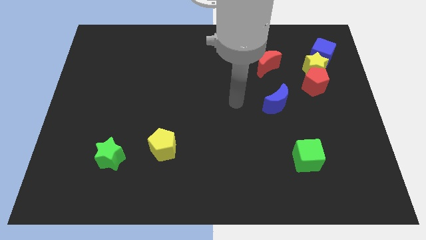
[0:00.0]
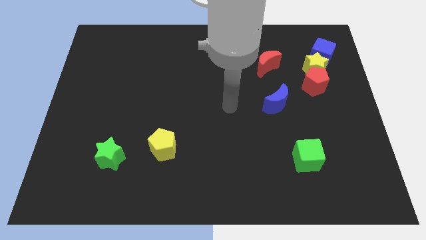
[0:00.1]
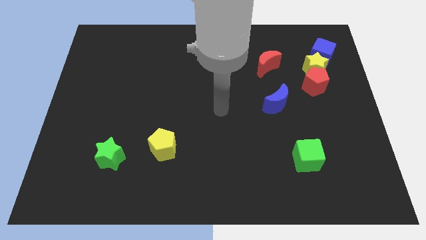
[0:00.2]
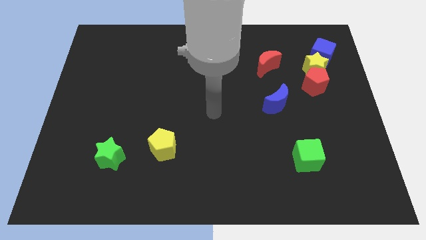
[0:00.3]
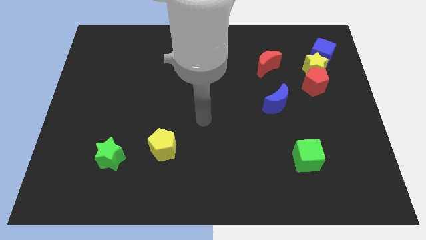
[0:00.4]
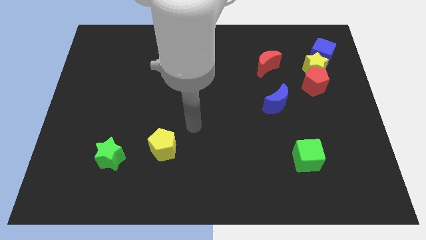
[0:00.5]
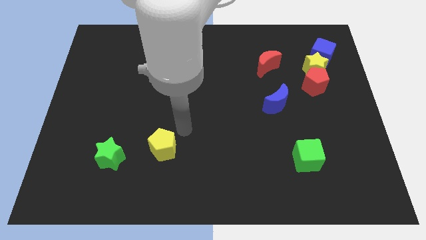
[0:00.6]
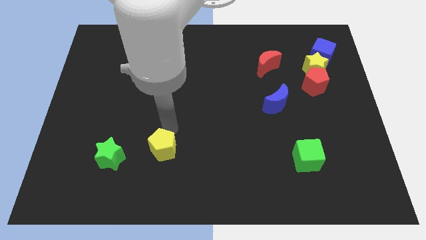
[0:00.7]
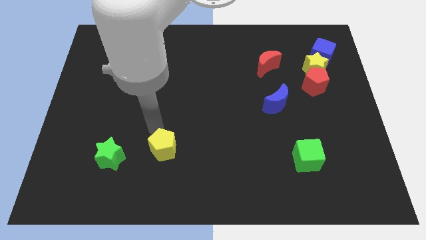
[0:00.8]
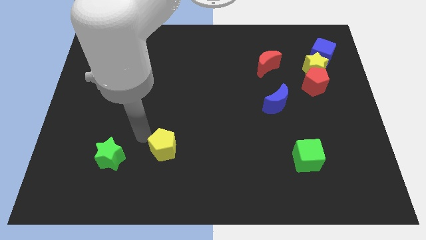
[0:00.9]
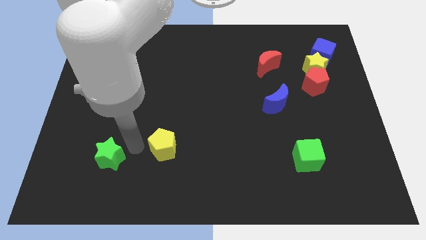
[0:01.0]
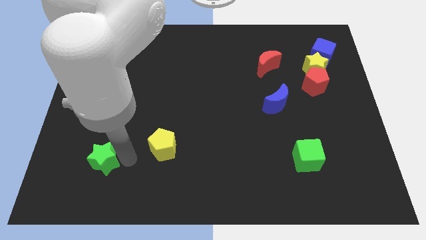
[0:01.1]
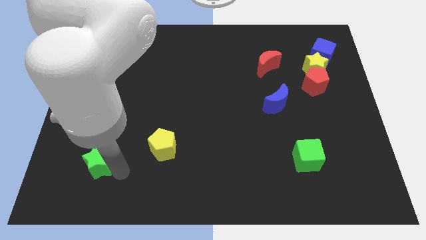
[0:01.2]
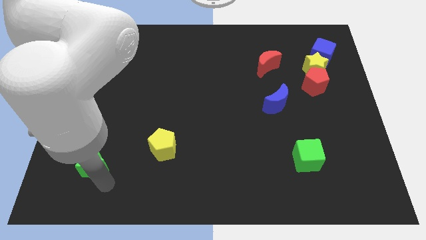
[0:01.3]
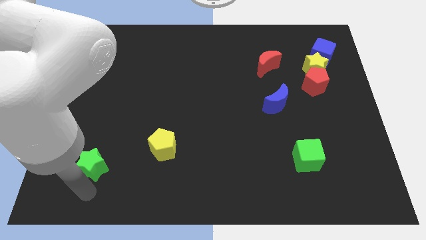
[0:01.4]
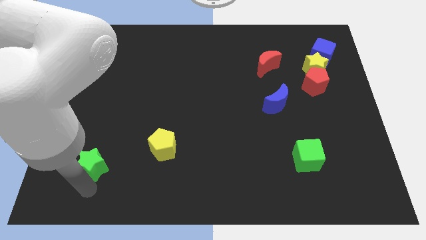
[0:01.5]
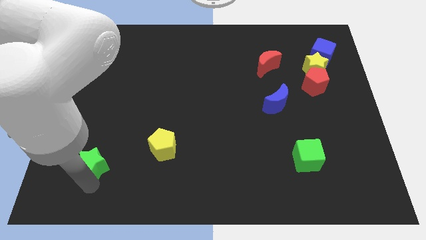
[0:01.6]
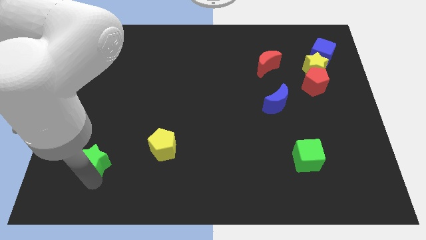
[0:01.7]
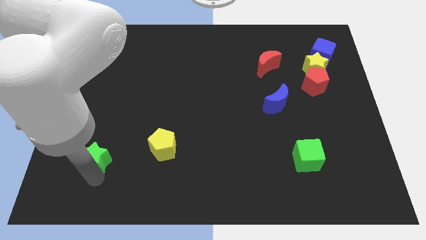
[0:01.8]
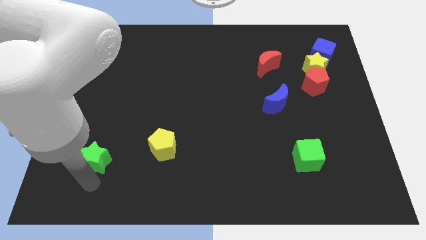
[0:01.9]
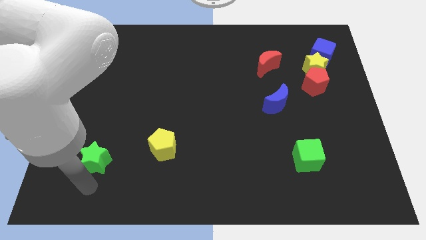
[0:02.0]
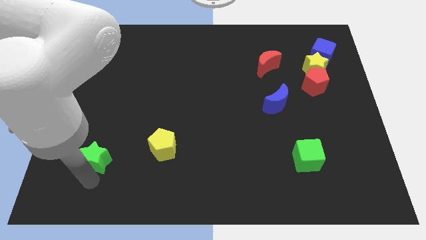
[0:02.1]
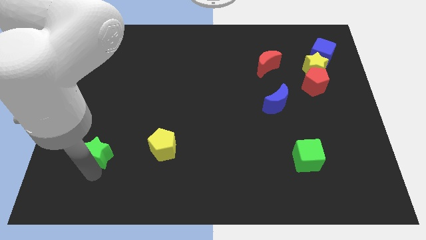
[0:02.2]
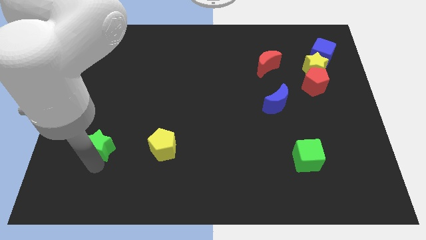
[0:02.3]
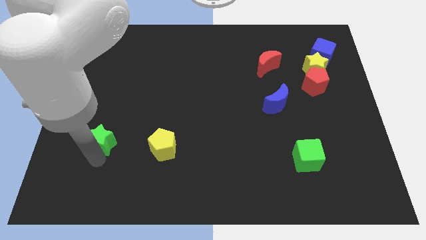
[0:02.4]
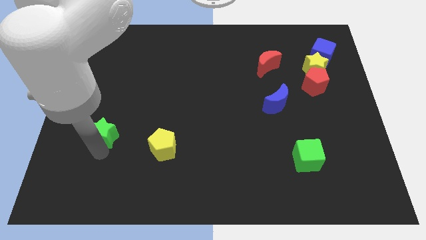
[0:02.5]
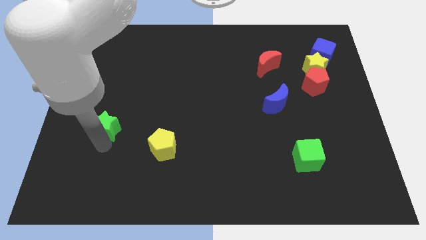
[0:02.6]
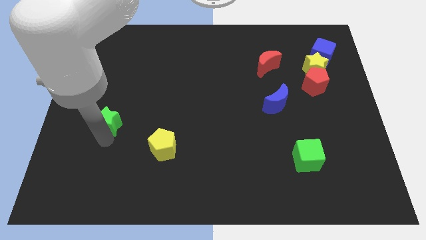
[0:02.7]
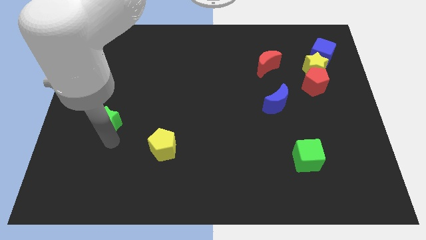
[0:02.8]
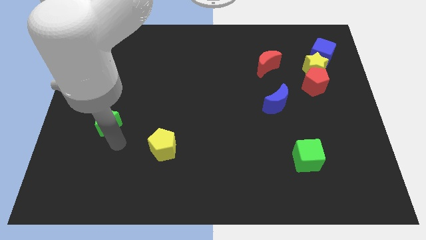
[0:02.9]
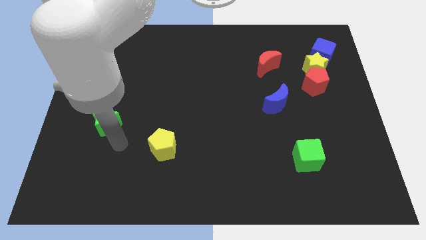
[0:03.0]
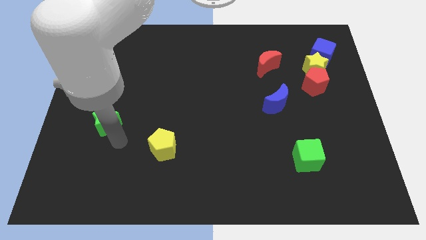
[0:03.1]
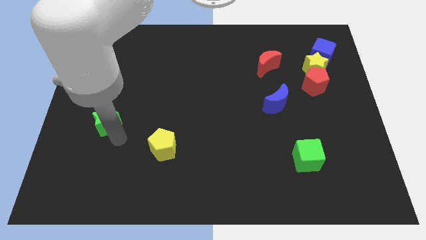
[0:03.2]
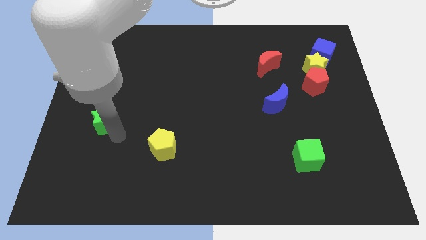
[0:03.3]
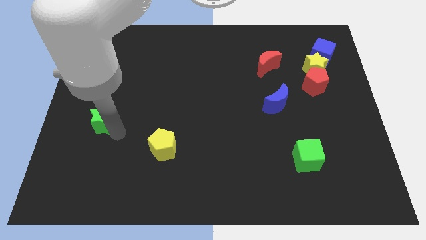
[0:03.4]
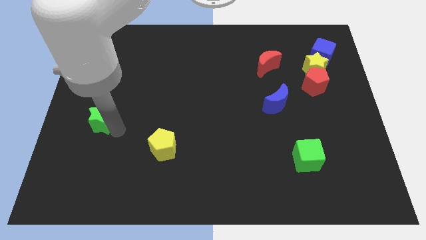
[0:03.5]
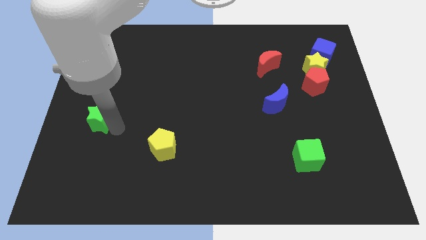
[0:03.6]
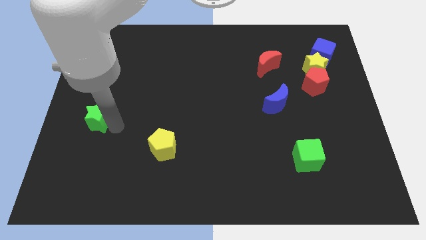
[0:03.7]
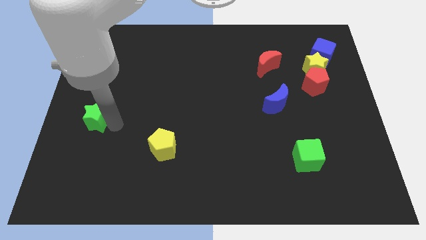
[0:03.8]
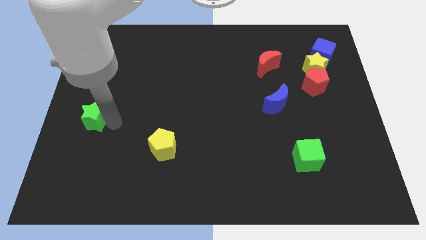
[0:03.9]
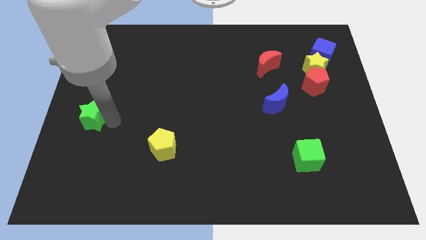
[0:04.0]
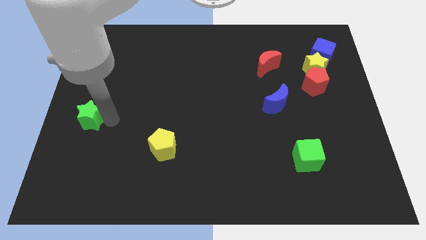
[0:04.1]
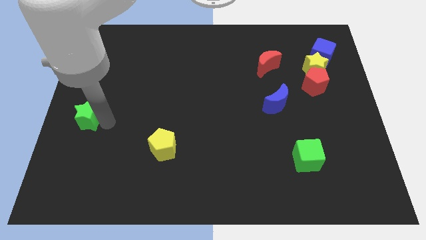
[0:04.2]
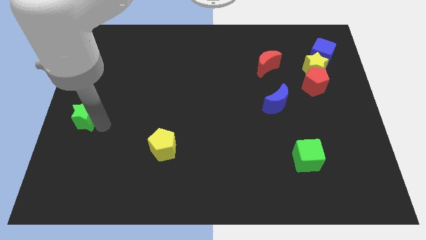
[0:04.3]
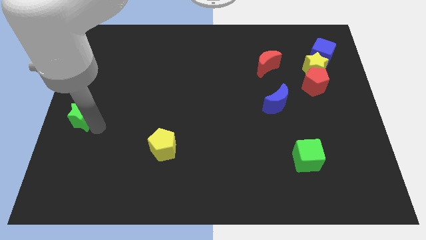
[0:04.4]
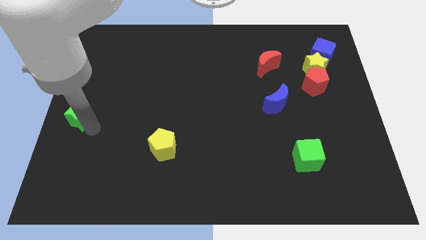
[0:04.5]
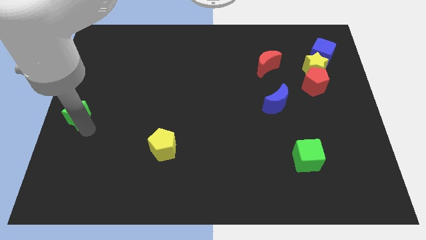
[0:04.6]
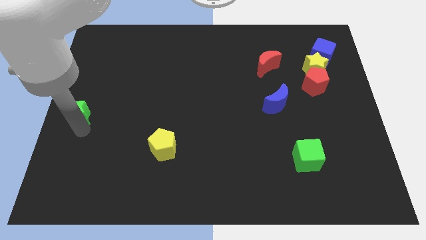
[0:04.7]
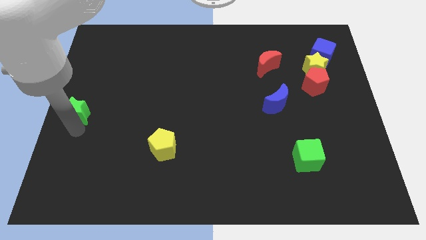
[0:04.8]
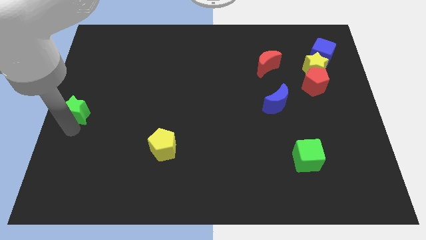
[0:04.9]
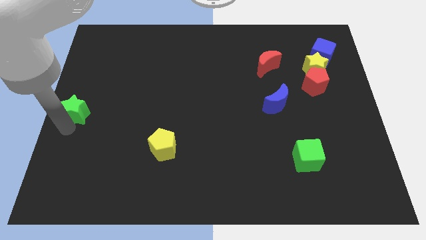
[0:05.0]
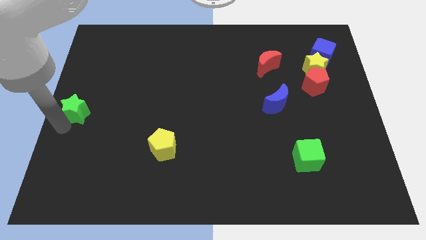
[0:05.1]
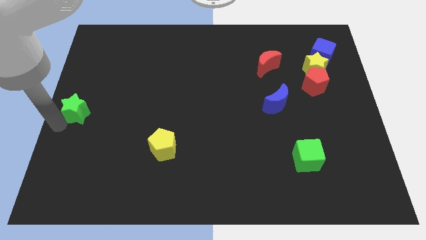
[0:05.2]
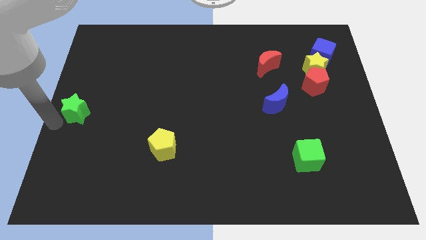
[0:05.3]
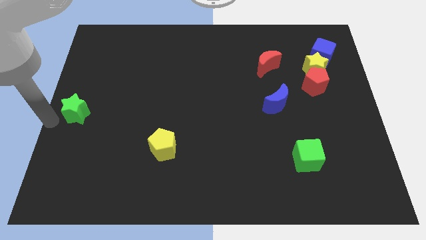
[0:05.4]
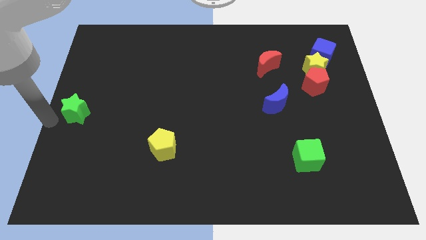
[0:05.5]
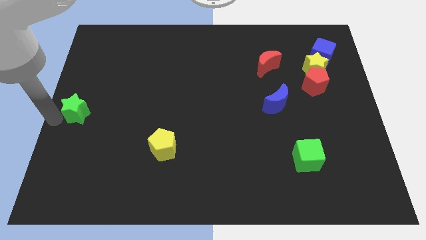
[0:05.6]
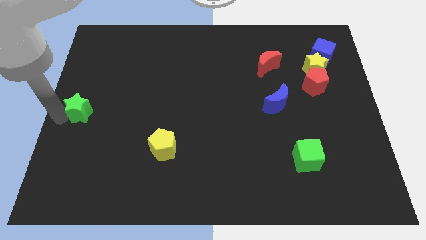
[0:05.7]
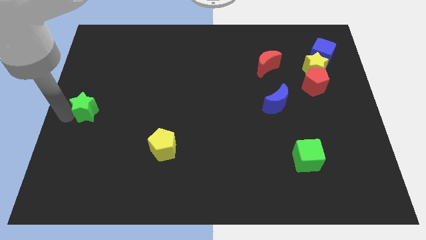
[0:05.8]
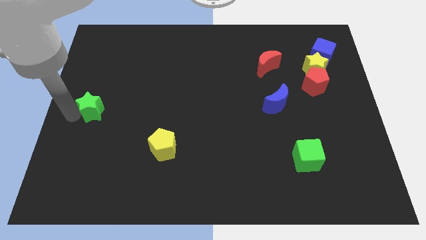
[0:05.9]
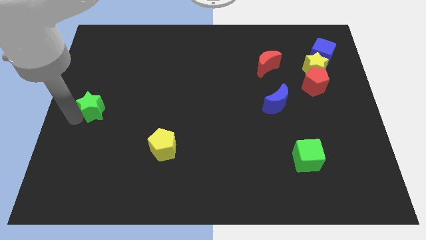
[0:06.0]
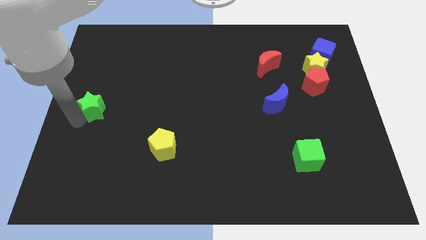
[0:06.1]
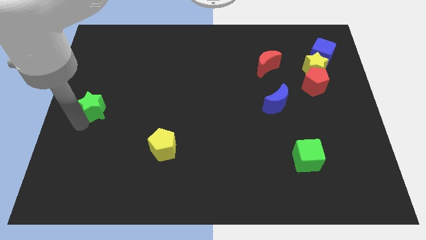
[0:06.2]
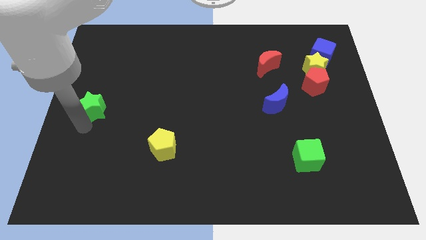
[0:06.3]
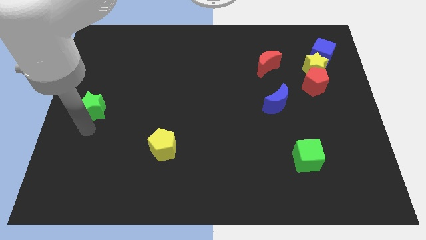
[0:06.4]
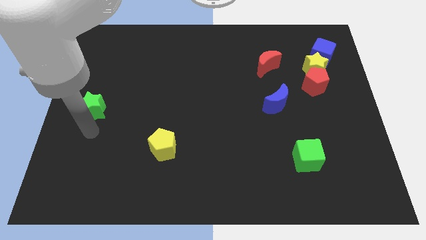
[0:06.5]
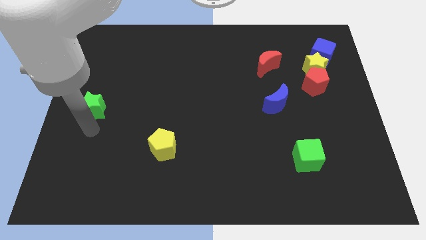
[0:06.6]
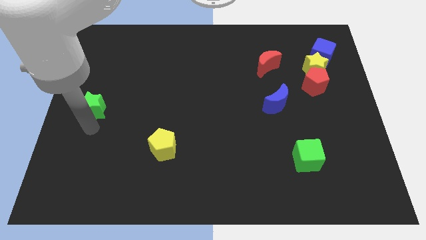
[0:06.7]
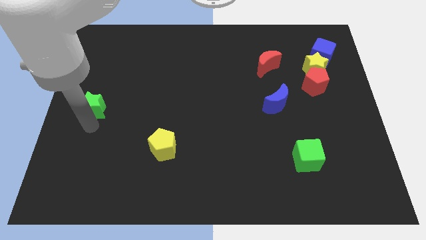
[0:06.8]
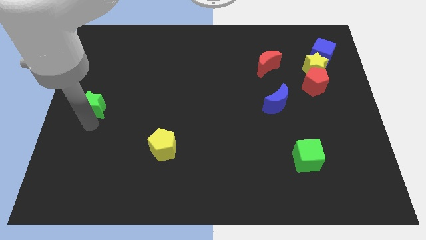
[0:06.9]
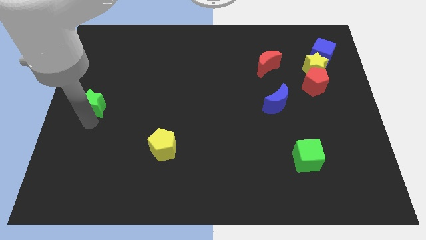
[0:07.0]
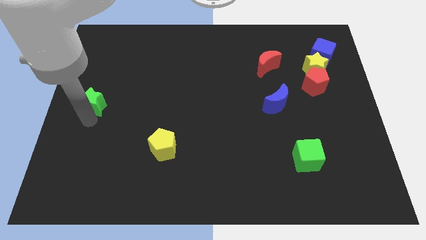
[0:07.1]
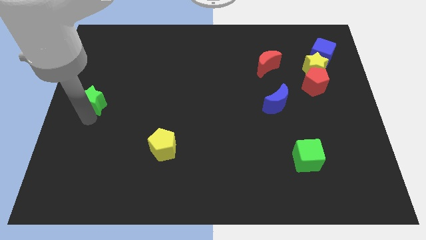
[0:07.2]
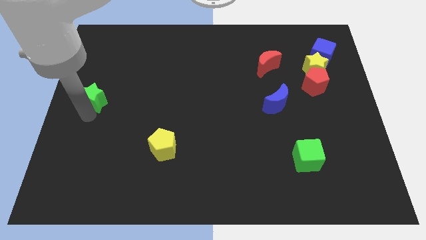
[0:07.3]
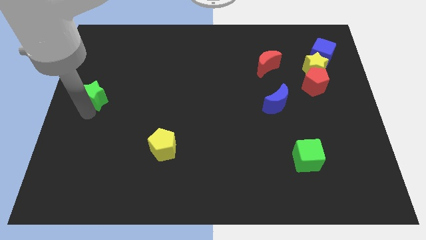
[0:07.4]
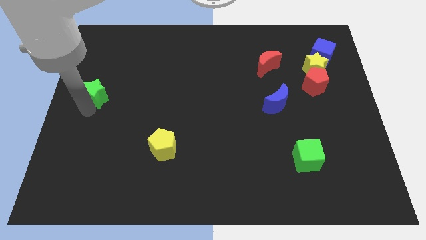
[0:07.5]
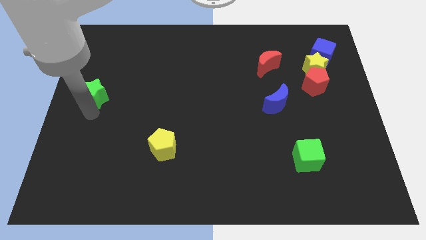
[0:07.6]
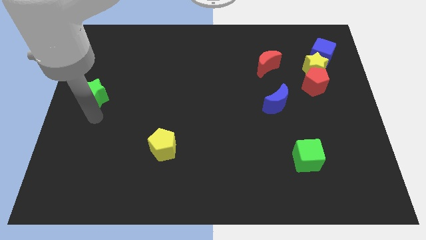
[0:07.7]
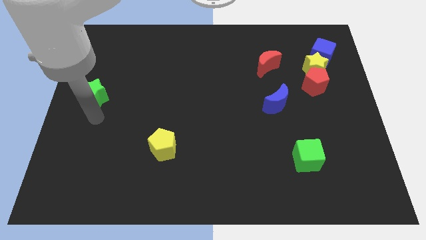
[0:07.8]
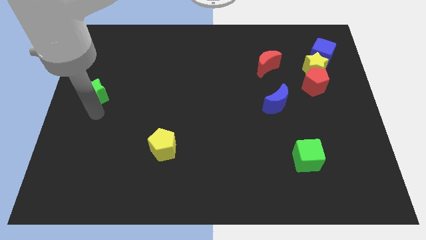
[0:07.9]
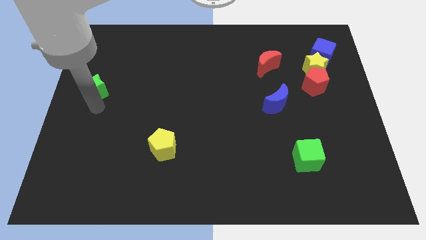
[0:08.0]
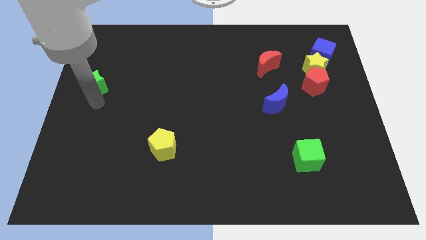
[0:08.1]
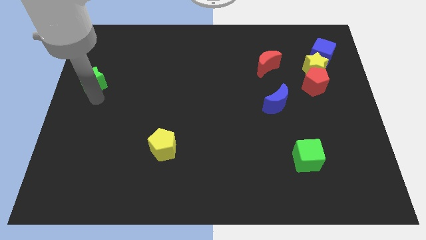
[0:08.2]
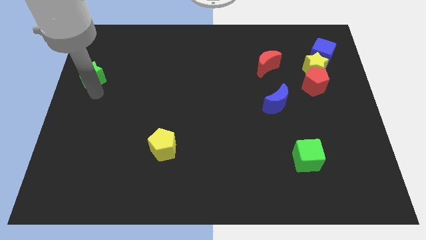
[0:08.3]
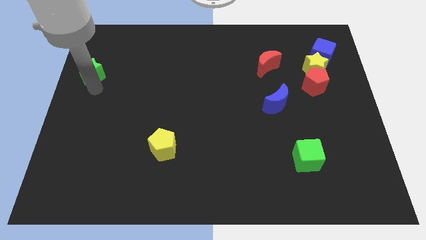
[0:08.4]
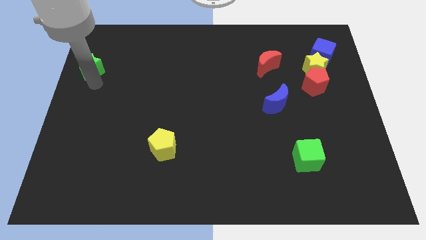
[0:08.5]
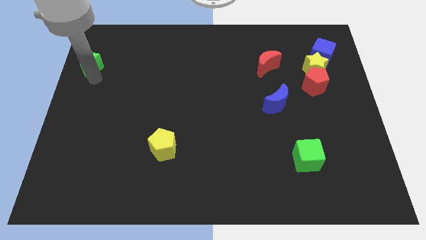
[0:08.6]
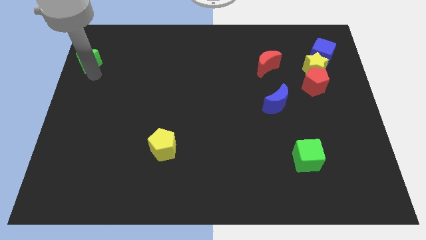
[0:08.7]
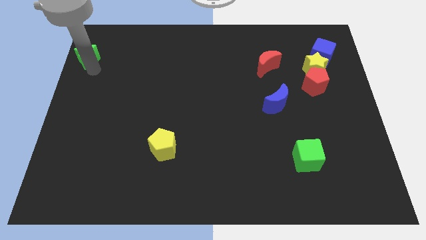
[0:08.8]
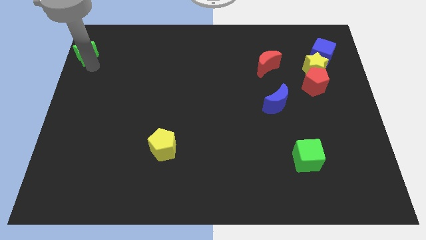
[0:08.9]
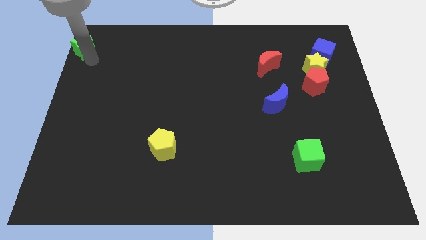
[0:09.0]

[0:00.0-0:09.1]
slide the green star to the top left corner
